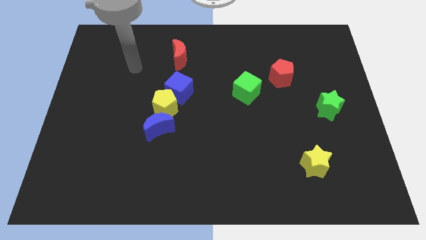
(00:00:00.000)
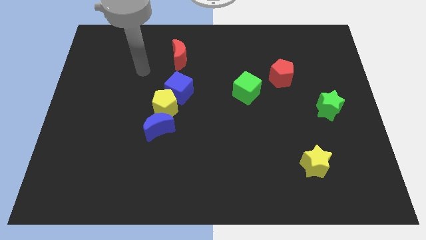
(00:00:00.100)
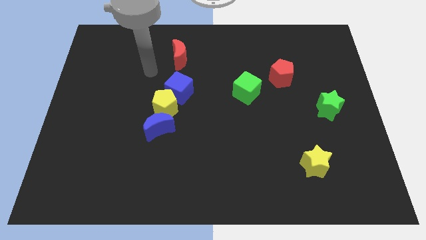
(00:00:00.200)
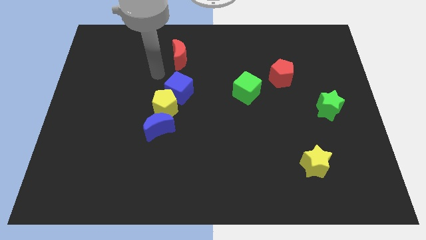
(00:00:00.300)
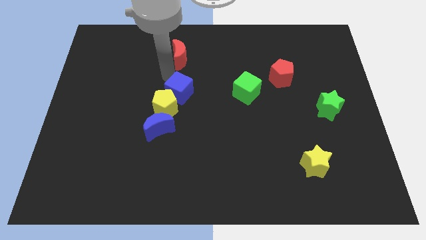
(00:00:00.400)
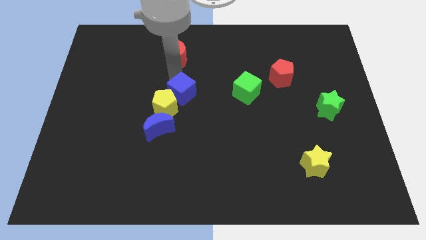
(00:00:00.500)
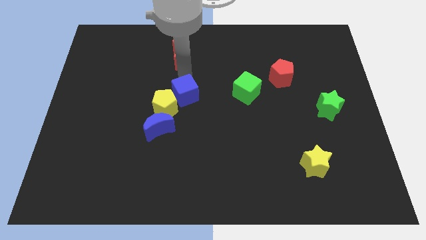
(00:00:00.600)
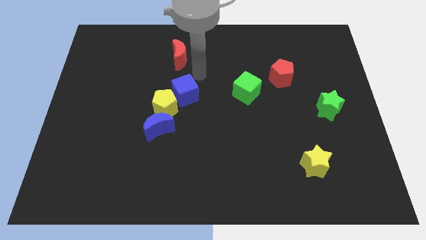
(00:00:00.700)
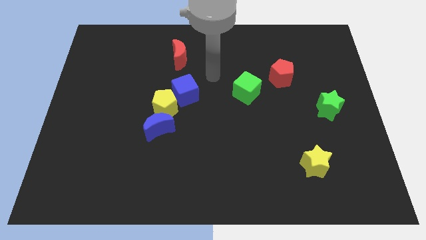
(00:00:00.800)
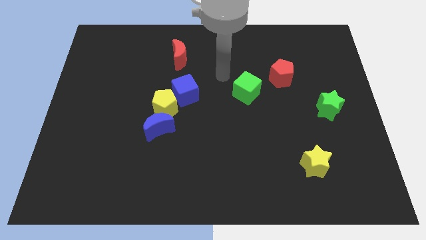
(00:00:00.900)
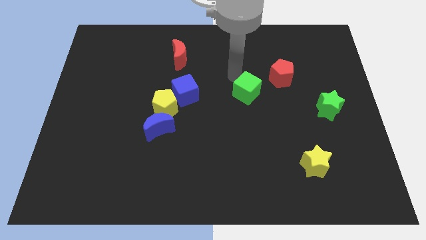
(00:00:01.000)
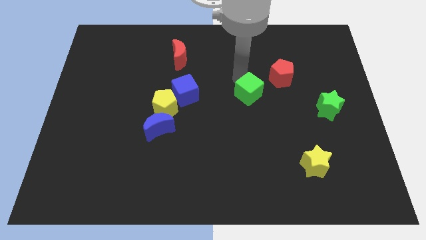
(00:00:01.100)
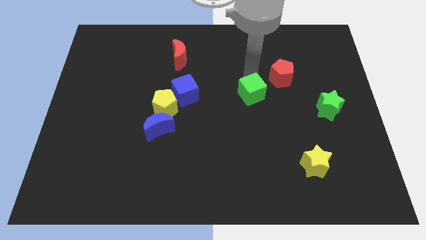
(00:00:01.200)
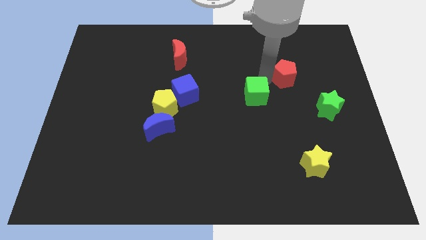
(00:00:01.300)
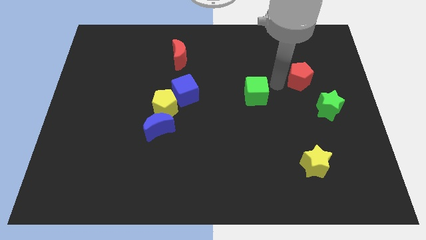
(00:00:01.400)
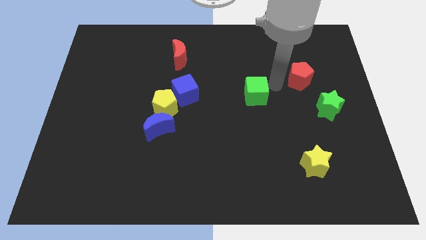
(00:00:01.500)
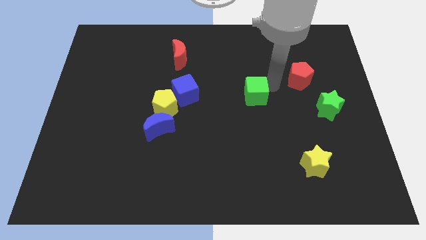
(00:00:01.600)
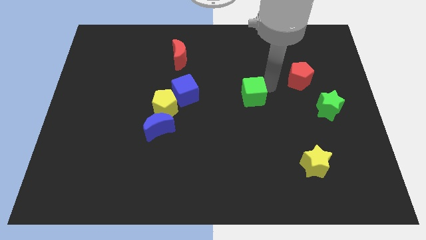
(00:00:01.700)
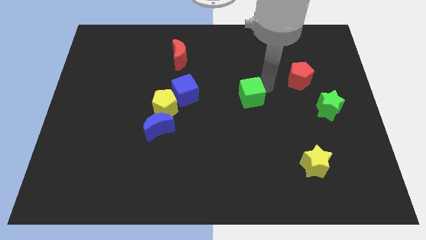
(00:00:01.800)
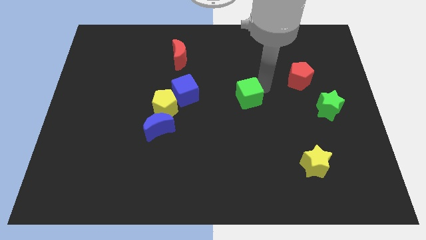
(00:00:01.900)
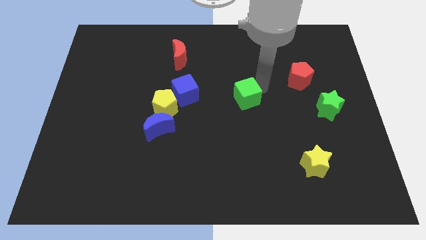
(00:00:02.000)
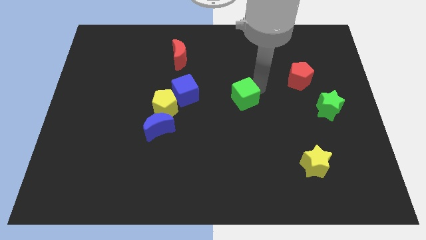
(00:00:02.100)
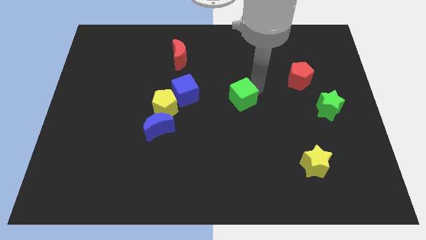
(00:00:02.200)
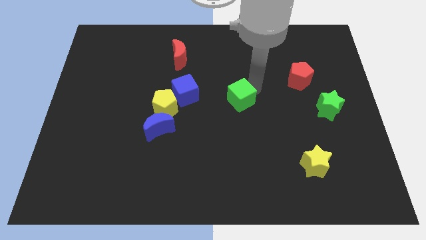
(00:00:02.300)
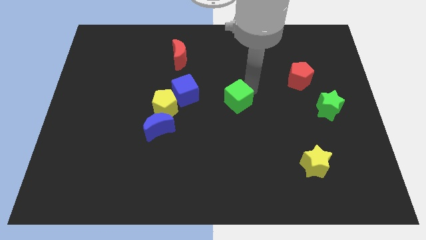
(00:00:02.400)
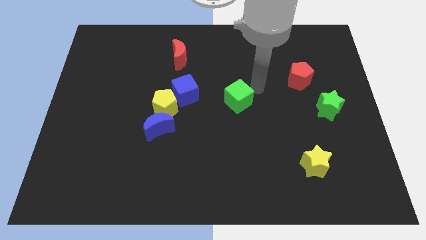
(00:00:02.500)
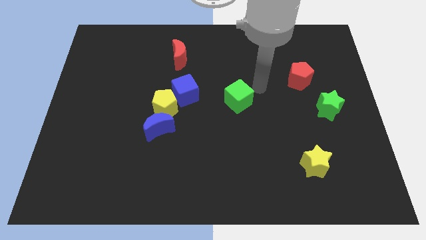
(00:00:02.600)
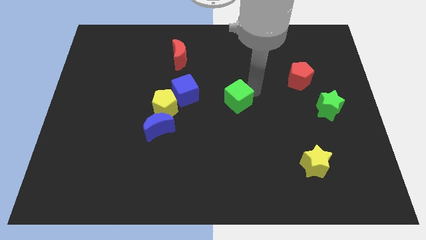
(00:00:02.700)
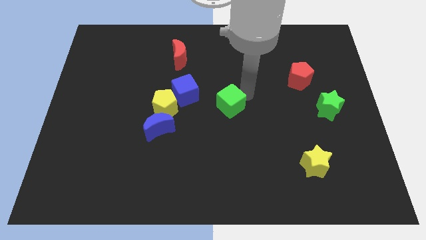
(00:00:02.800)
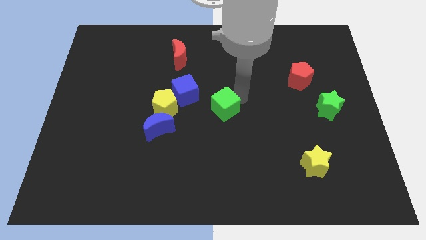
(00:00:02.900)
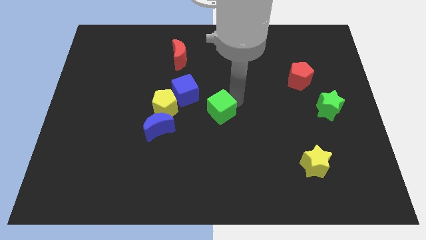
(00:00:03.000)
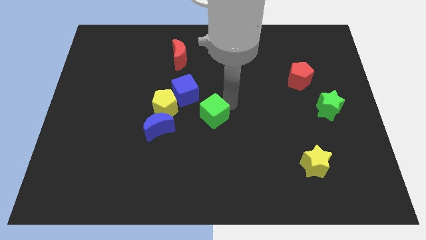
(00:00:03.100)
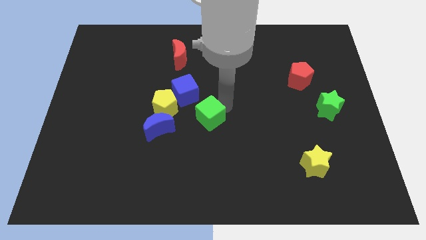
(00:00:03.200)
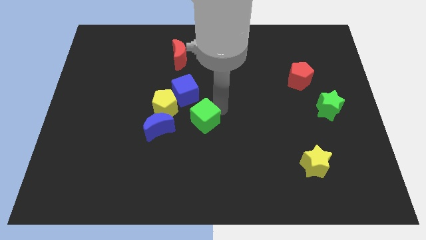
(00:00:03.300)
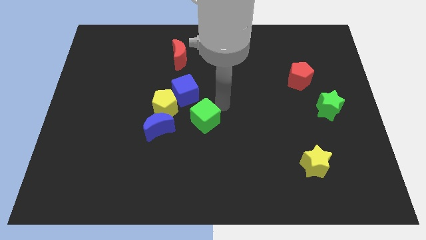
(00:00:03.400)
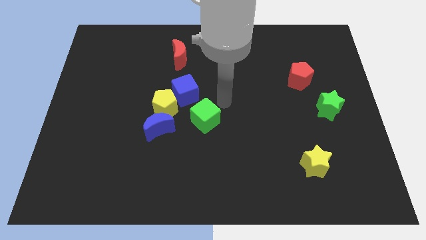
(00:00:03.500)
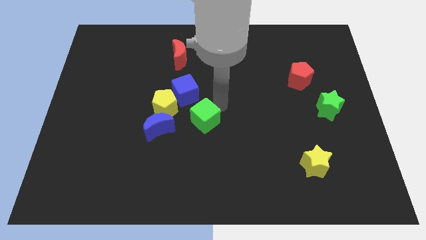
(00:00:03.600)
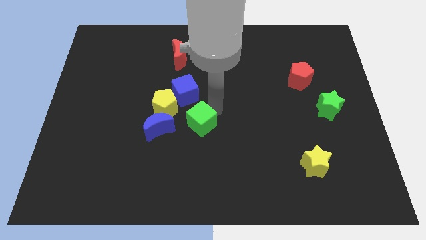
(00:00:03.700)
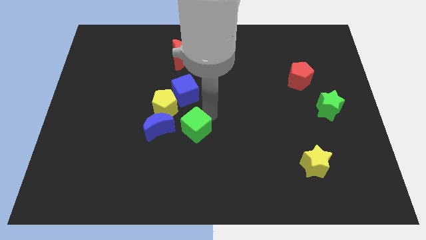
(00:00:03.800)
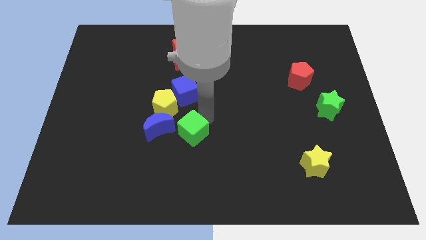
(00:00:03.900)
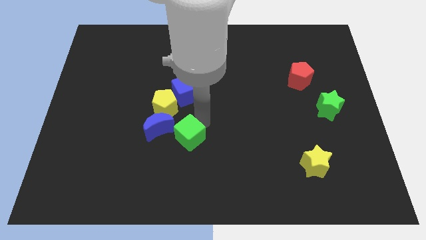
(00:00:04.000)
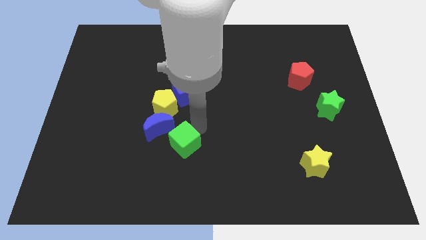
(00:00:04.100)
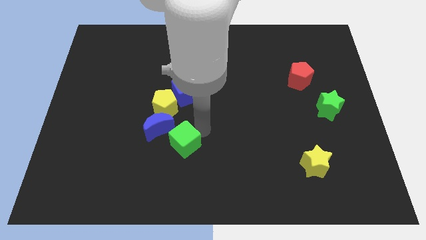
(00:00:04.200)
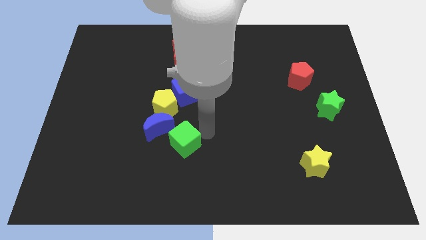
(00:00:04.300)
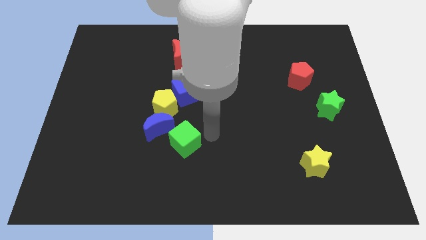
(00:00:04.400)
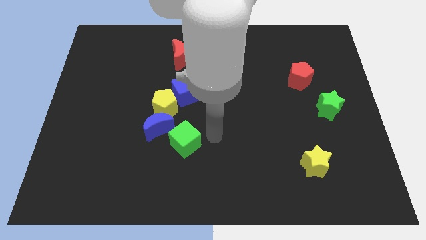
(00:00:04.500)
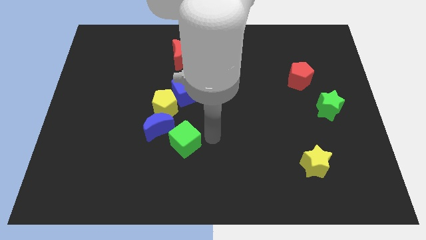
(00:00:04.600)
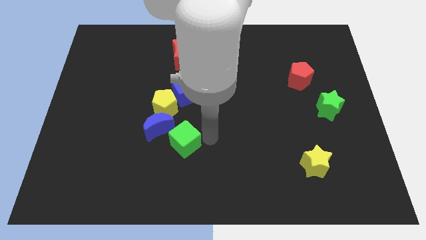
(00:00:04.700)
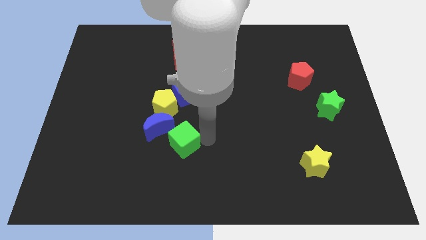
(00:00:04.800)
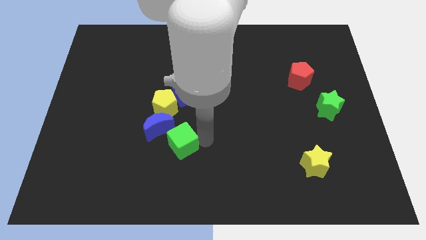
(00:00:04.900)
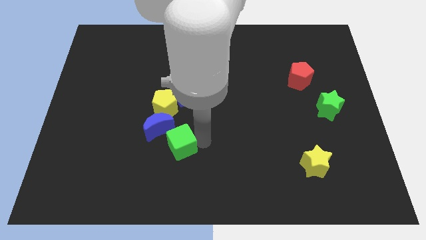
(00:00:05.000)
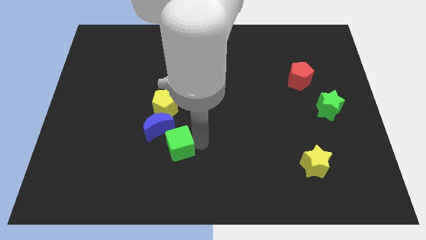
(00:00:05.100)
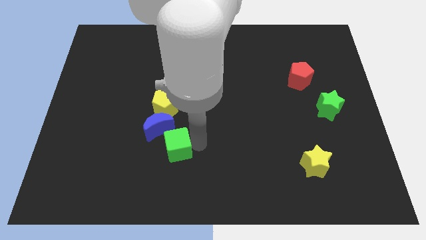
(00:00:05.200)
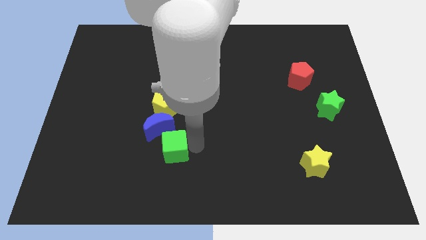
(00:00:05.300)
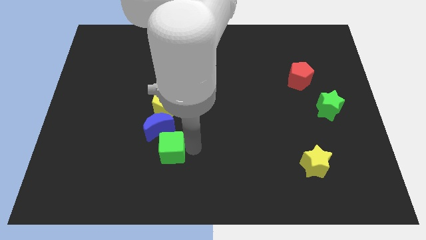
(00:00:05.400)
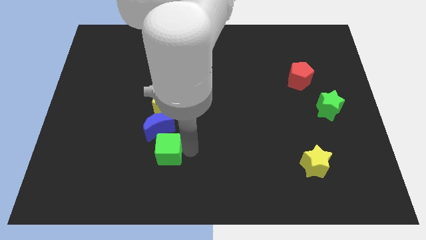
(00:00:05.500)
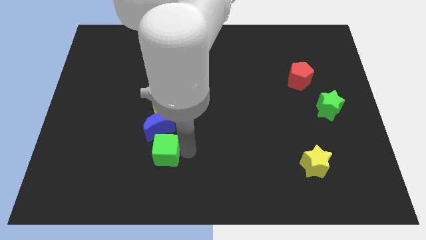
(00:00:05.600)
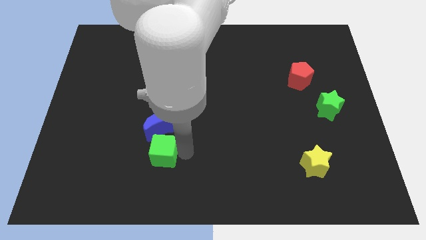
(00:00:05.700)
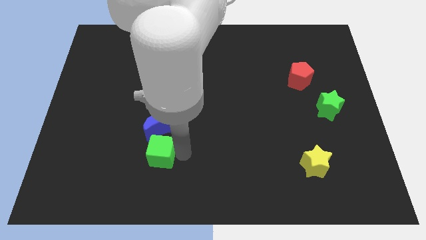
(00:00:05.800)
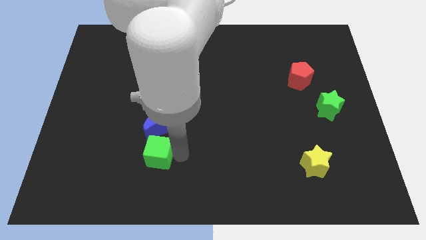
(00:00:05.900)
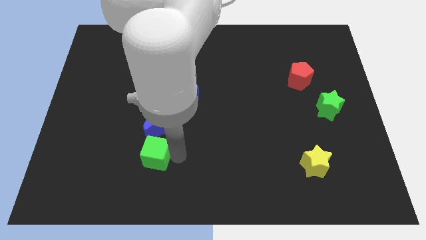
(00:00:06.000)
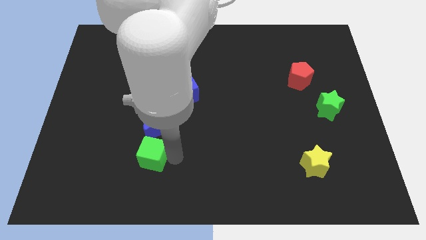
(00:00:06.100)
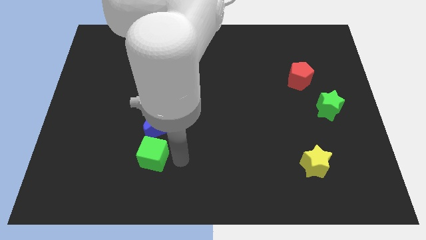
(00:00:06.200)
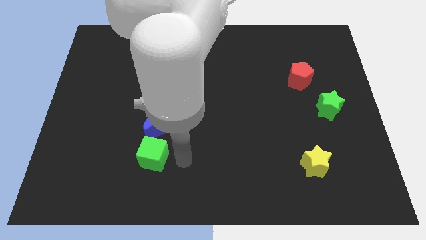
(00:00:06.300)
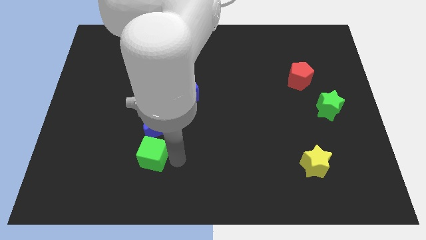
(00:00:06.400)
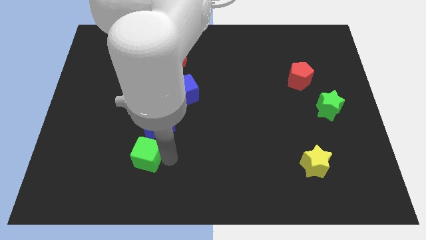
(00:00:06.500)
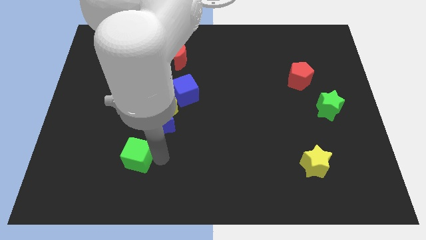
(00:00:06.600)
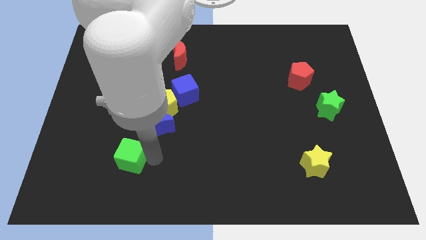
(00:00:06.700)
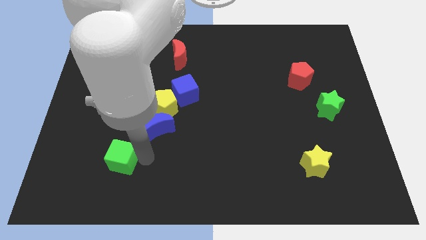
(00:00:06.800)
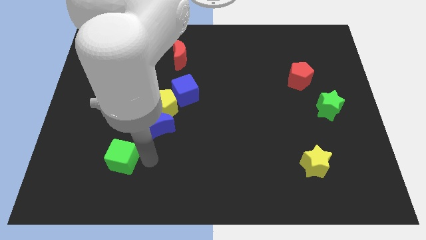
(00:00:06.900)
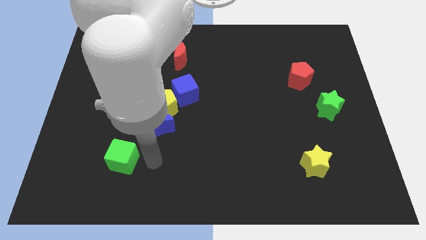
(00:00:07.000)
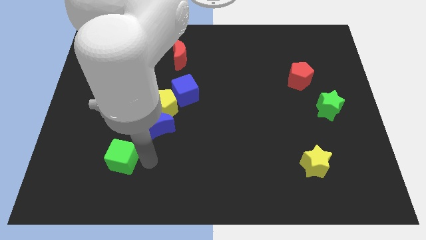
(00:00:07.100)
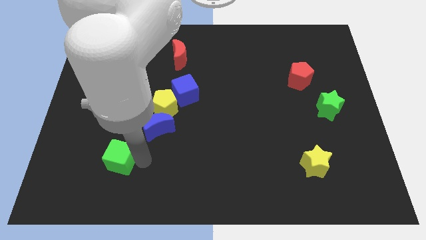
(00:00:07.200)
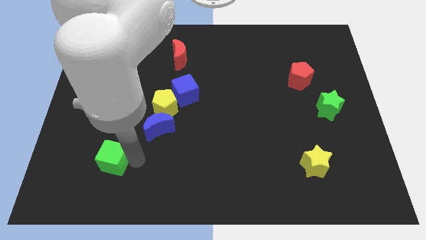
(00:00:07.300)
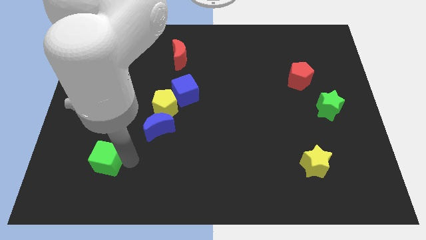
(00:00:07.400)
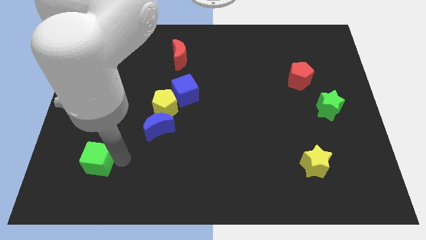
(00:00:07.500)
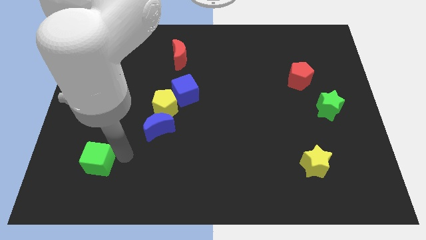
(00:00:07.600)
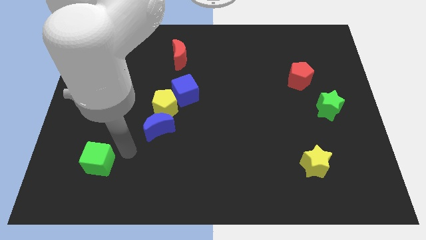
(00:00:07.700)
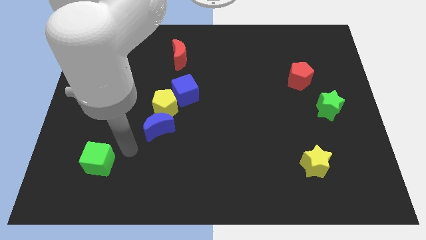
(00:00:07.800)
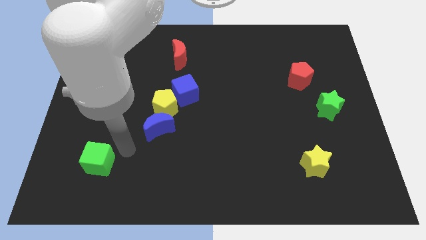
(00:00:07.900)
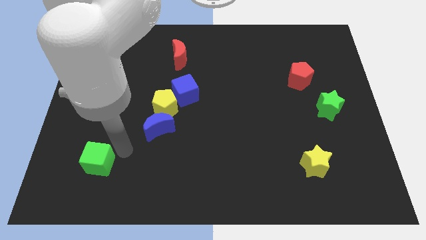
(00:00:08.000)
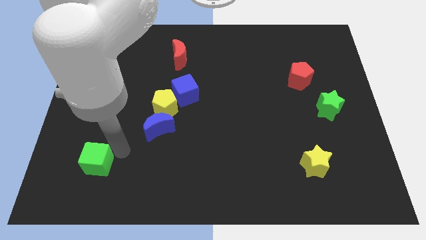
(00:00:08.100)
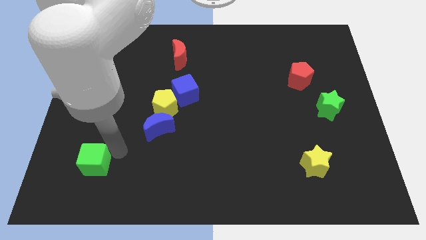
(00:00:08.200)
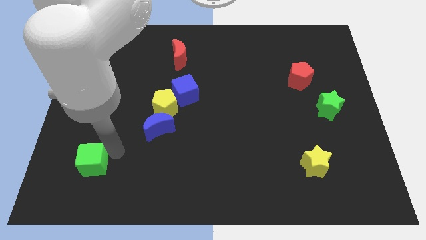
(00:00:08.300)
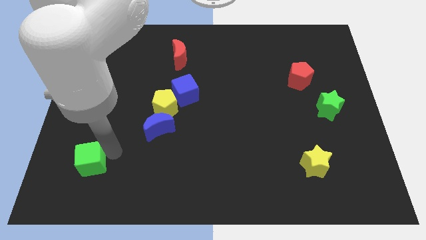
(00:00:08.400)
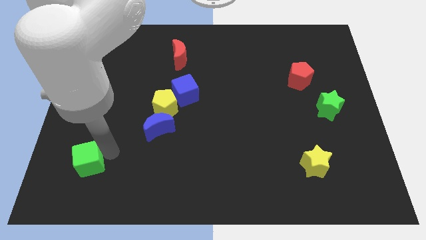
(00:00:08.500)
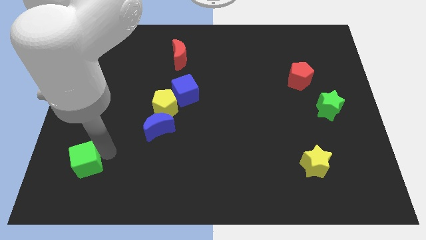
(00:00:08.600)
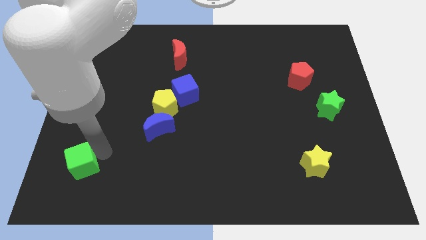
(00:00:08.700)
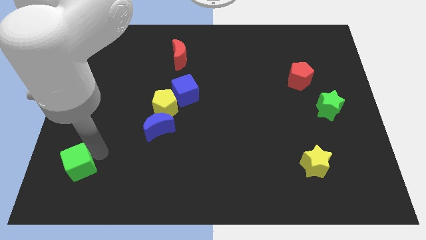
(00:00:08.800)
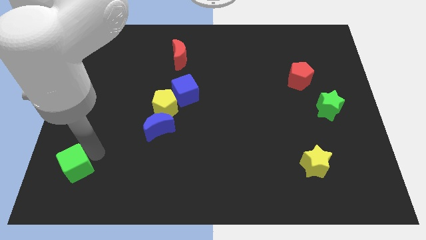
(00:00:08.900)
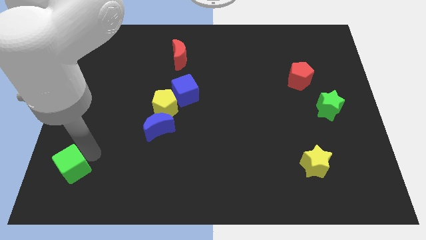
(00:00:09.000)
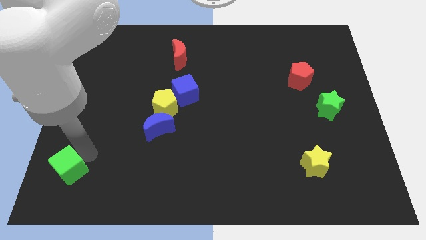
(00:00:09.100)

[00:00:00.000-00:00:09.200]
push the green cube to the bottom left
